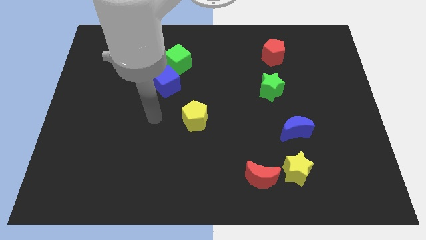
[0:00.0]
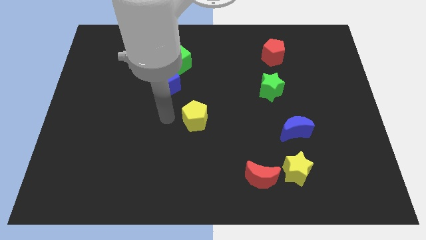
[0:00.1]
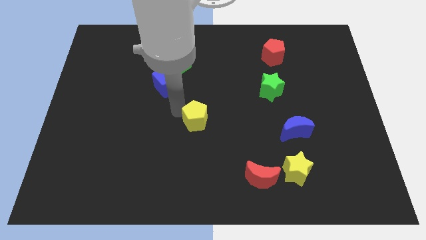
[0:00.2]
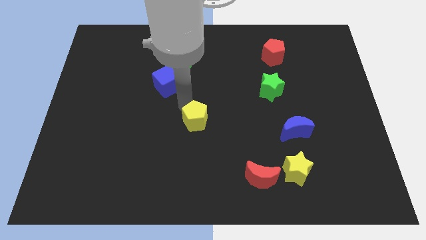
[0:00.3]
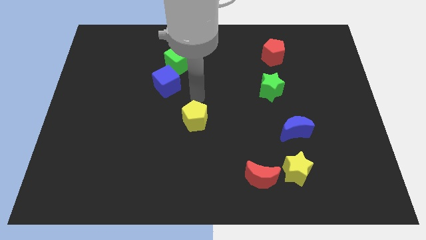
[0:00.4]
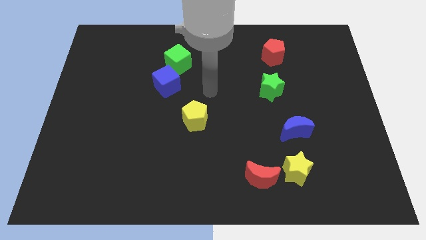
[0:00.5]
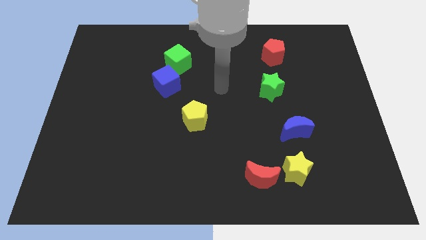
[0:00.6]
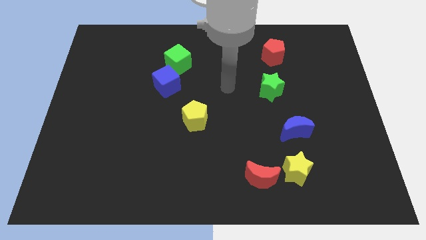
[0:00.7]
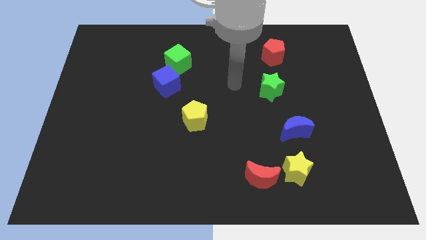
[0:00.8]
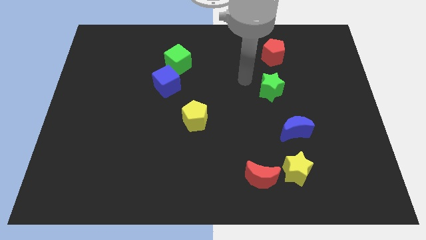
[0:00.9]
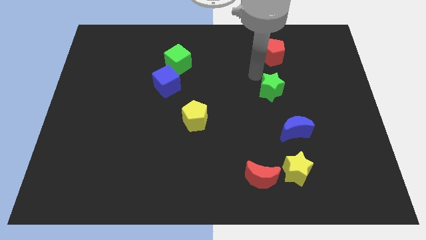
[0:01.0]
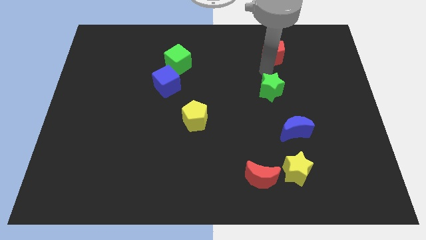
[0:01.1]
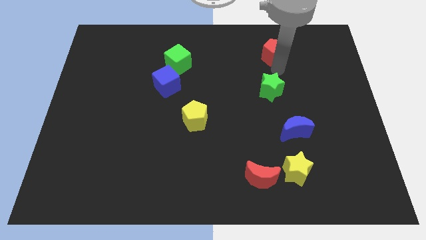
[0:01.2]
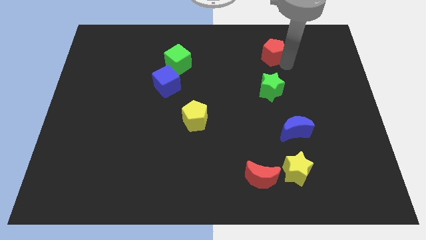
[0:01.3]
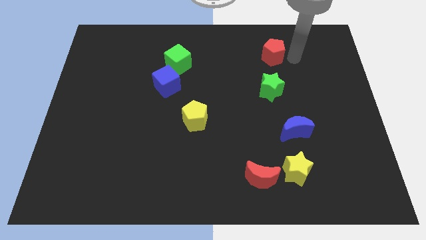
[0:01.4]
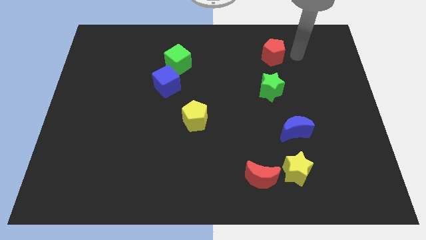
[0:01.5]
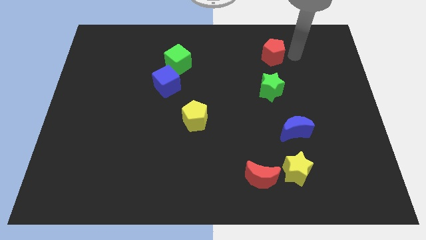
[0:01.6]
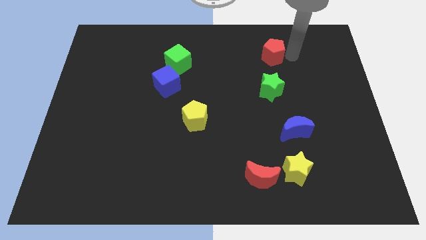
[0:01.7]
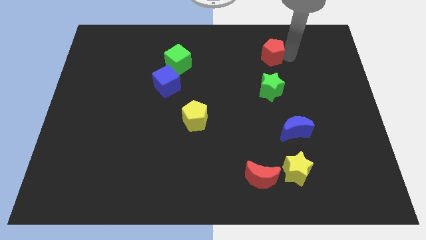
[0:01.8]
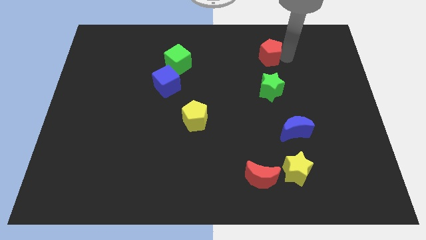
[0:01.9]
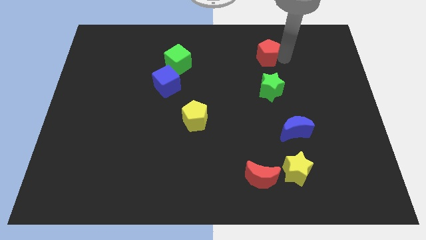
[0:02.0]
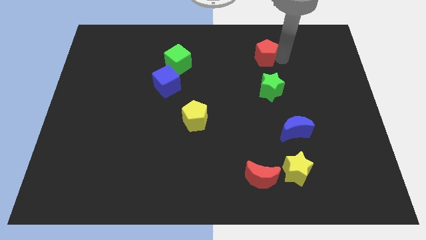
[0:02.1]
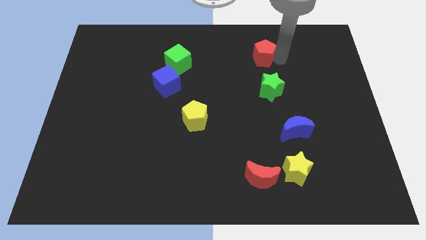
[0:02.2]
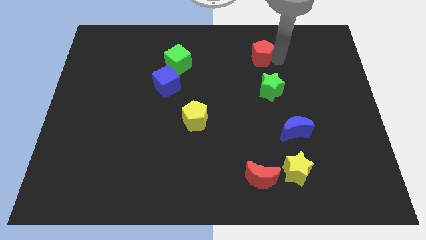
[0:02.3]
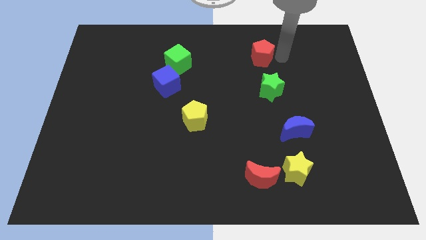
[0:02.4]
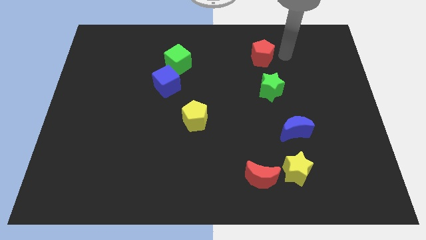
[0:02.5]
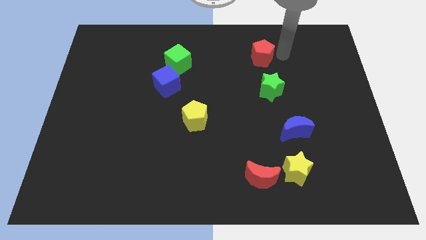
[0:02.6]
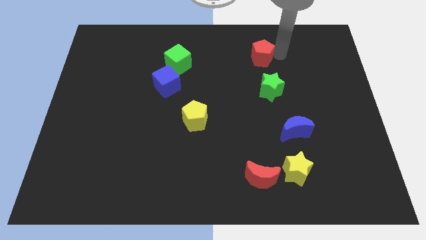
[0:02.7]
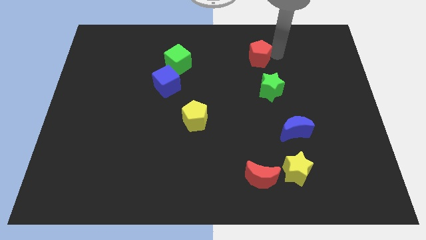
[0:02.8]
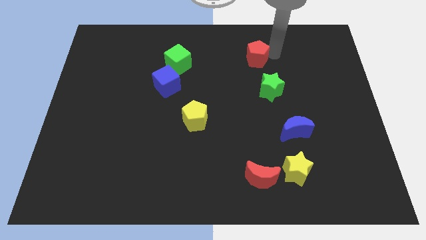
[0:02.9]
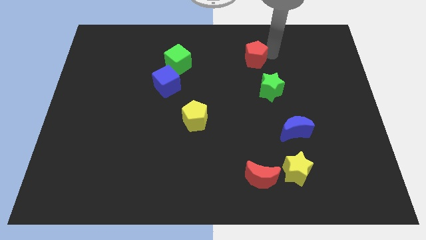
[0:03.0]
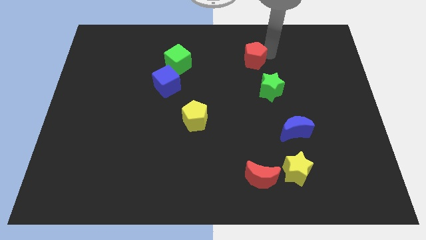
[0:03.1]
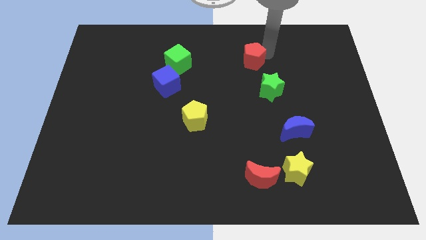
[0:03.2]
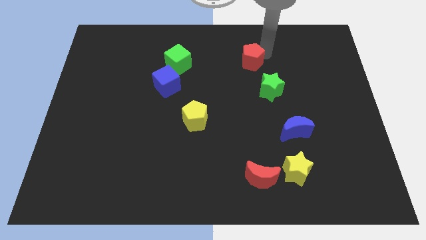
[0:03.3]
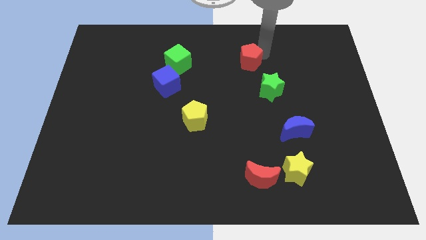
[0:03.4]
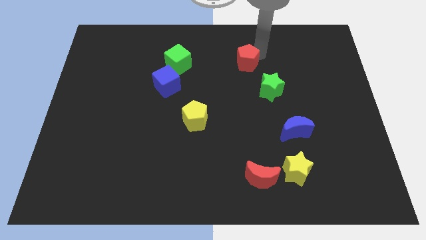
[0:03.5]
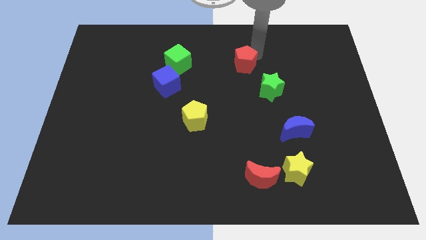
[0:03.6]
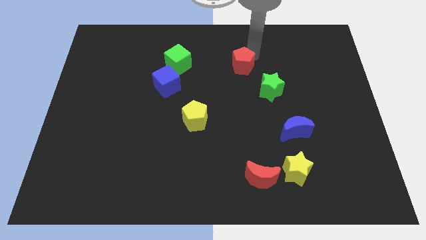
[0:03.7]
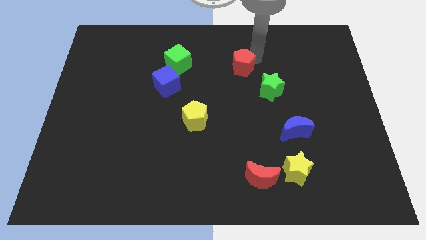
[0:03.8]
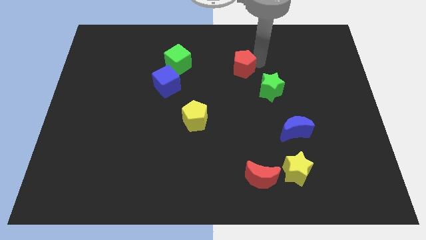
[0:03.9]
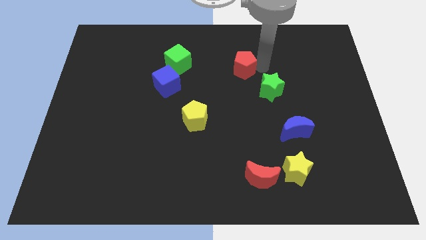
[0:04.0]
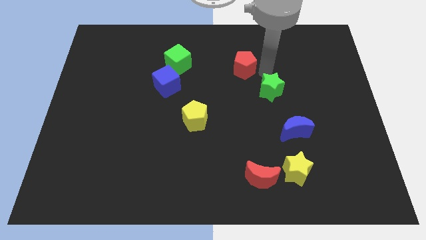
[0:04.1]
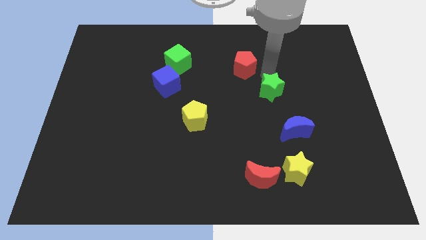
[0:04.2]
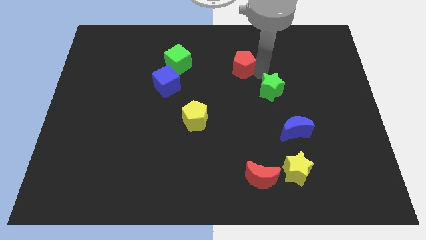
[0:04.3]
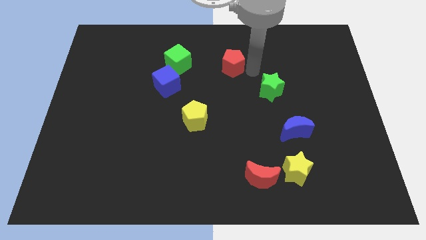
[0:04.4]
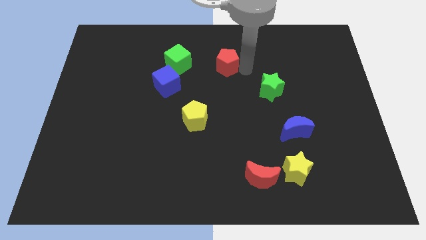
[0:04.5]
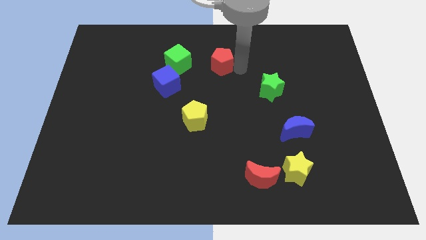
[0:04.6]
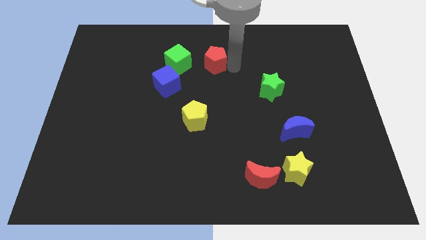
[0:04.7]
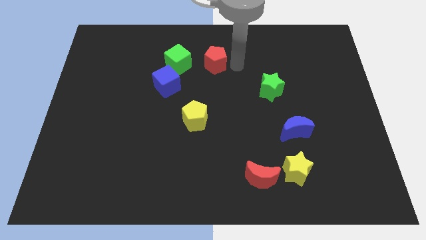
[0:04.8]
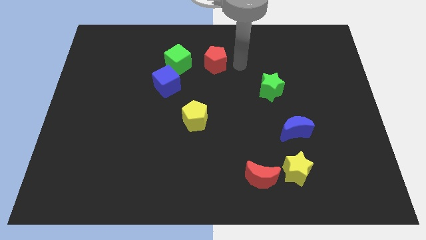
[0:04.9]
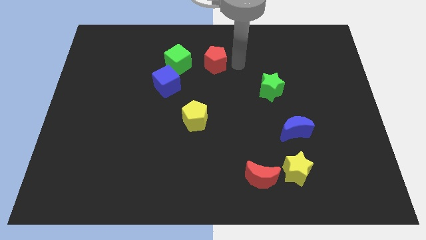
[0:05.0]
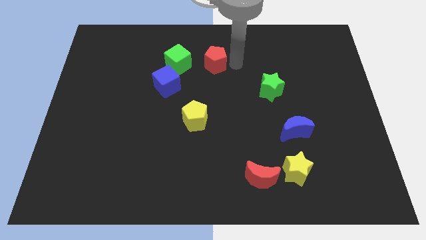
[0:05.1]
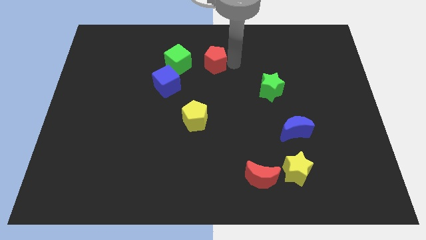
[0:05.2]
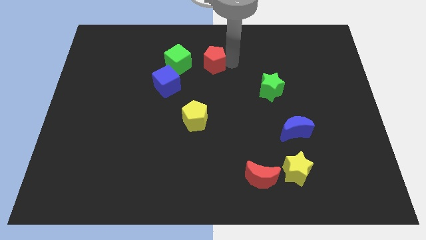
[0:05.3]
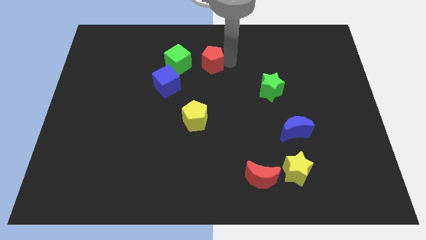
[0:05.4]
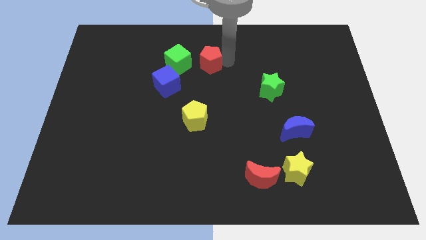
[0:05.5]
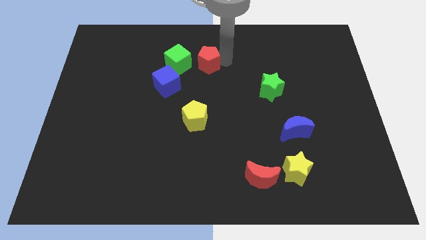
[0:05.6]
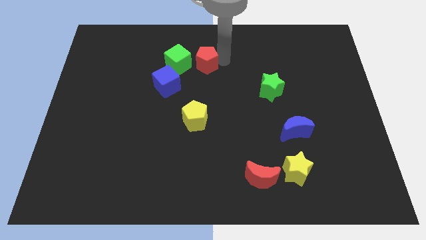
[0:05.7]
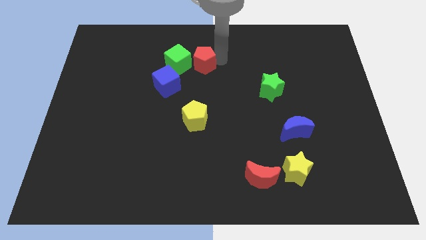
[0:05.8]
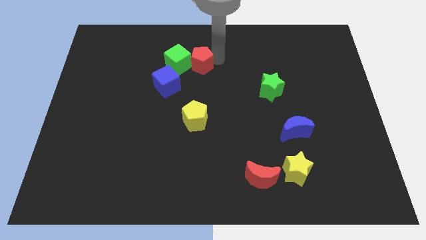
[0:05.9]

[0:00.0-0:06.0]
slide the red pentagon to the green cube

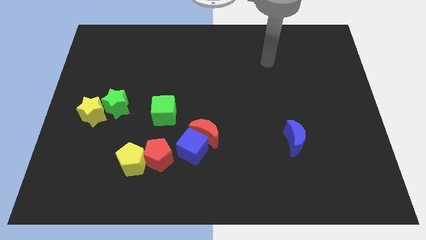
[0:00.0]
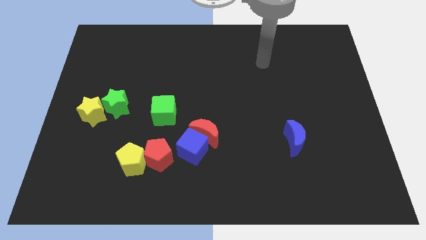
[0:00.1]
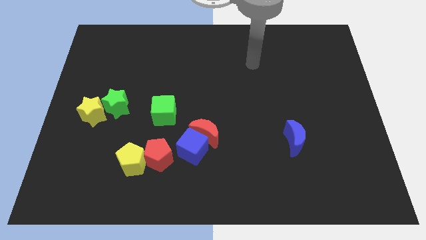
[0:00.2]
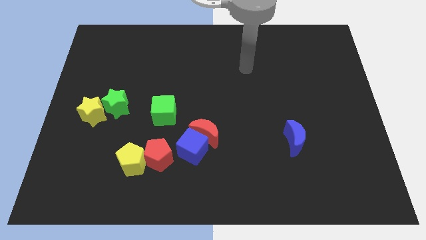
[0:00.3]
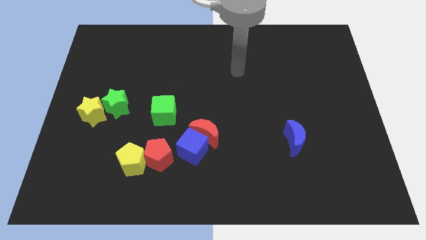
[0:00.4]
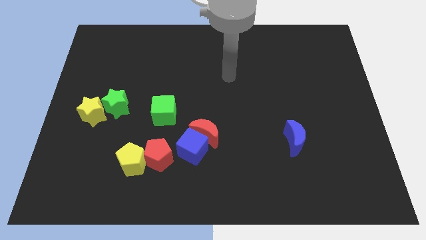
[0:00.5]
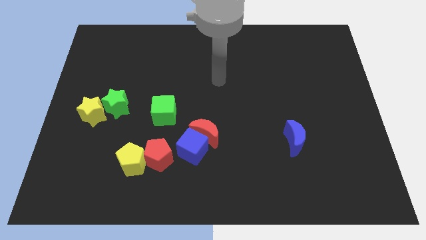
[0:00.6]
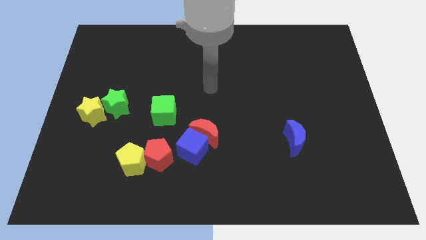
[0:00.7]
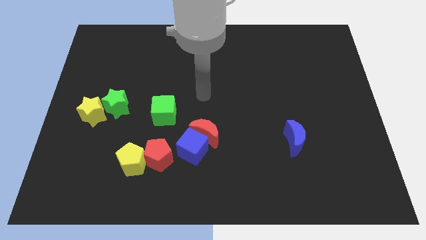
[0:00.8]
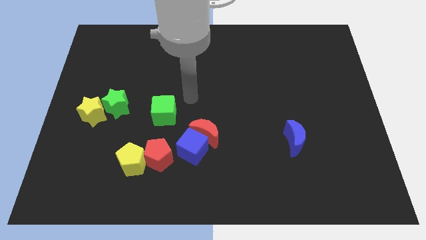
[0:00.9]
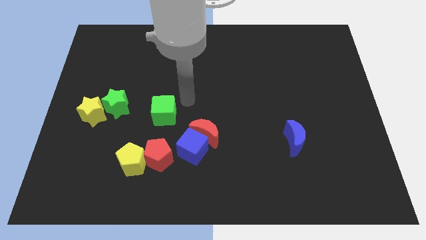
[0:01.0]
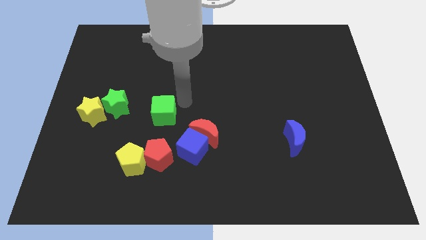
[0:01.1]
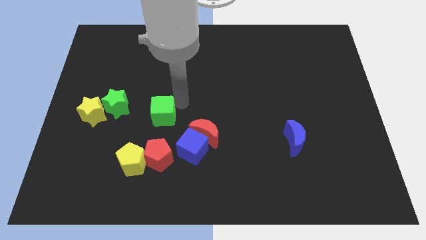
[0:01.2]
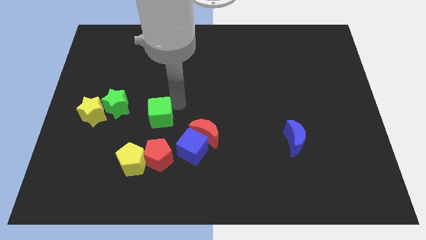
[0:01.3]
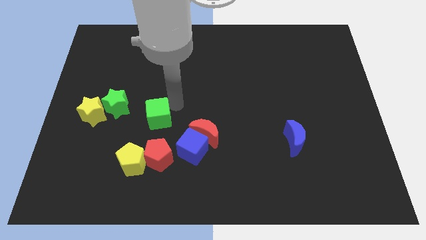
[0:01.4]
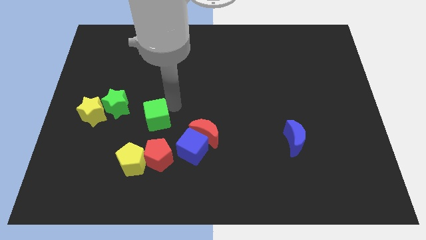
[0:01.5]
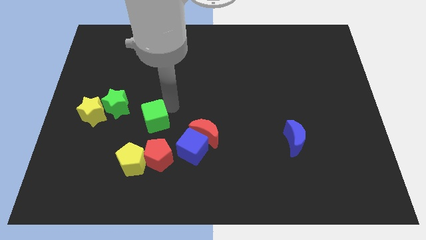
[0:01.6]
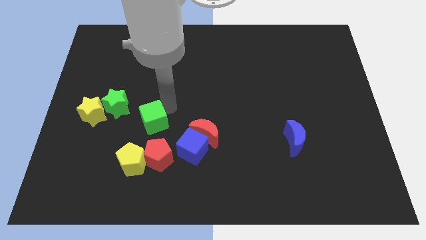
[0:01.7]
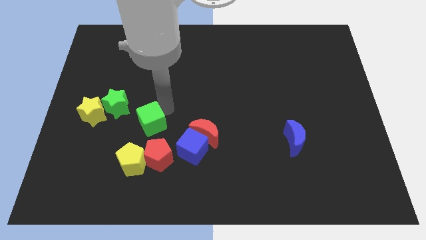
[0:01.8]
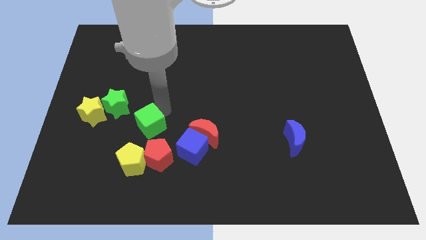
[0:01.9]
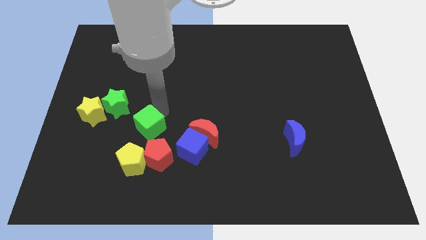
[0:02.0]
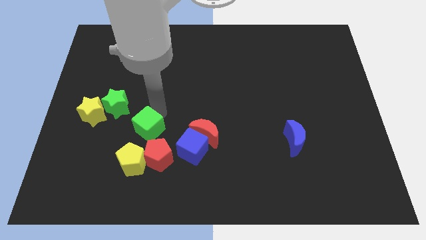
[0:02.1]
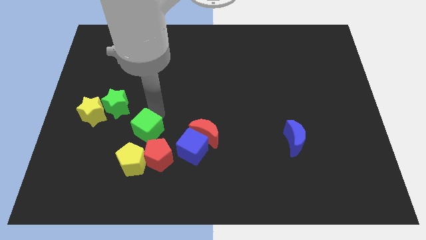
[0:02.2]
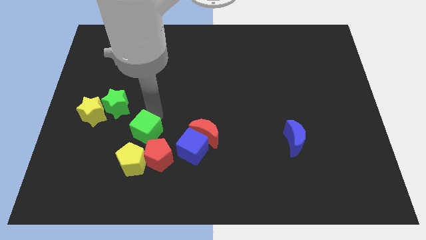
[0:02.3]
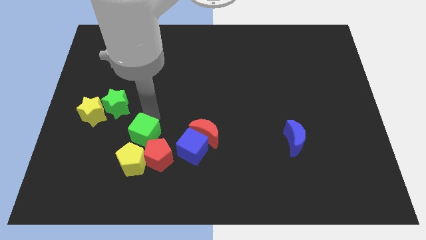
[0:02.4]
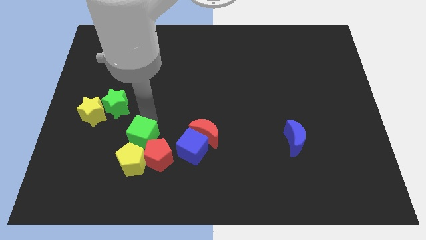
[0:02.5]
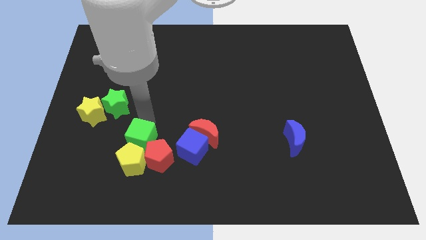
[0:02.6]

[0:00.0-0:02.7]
slide the green cube to the yellow pentagon
